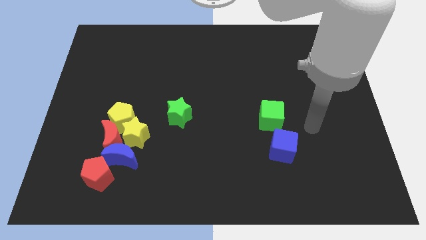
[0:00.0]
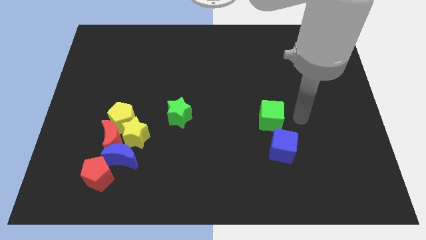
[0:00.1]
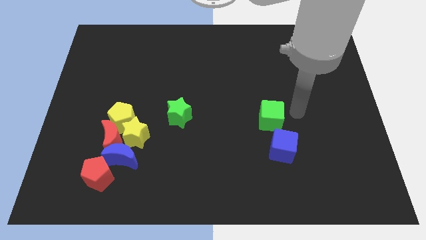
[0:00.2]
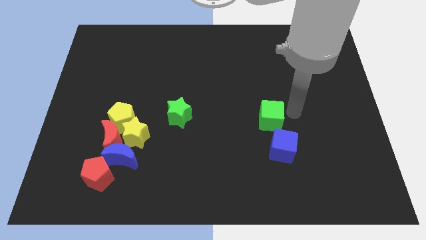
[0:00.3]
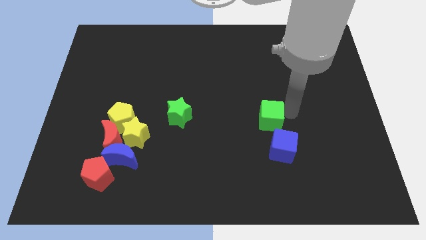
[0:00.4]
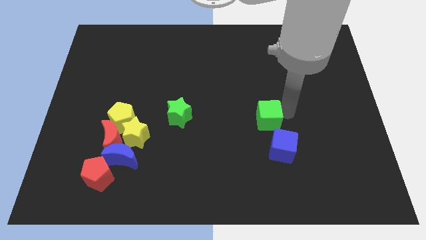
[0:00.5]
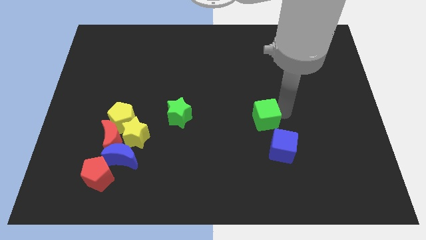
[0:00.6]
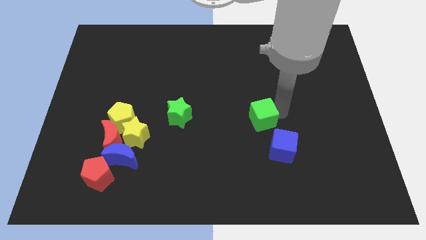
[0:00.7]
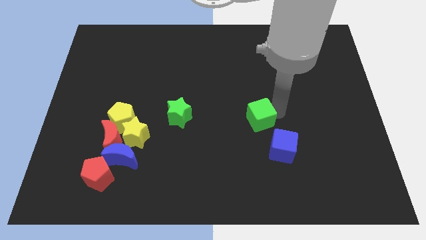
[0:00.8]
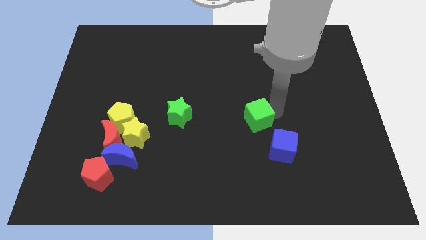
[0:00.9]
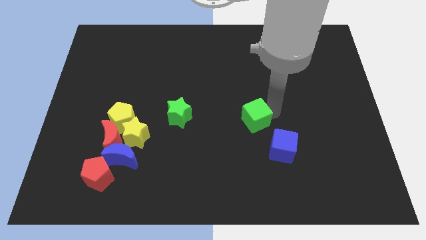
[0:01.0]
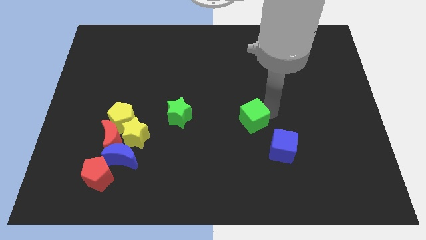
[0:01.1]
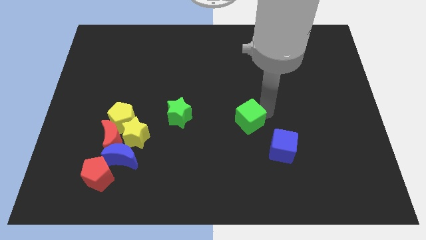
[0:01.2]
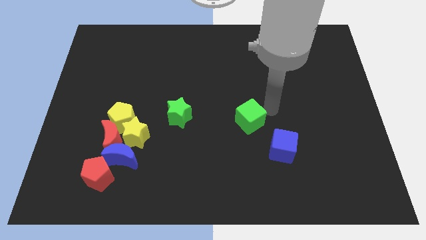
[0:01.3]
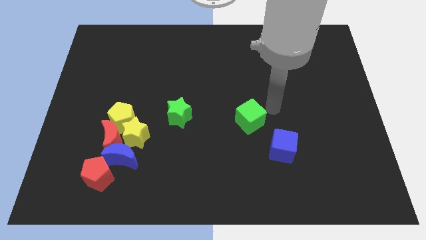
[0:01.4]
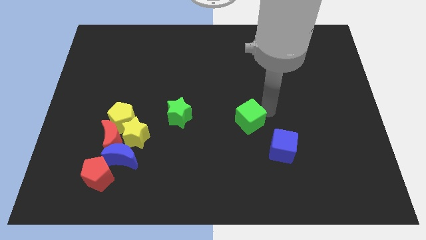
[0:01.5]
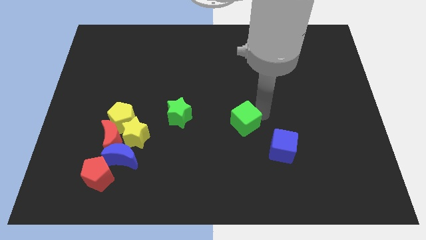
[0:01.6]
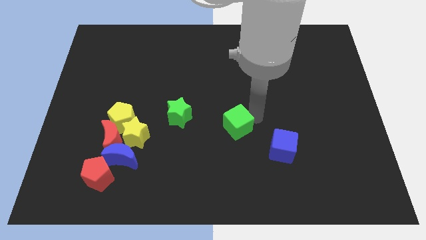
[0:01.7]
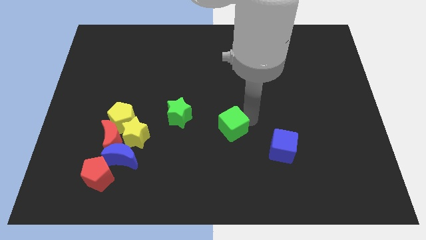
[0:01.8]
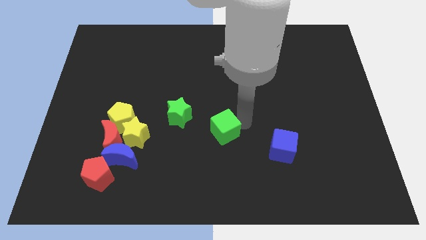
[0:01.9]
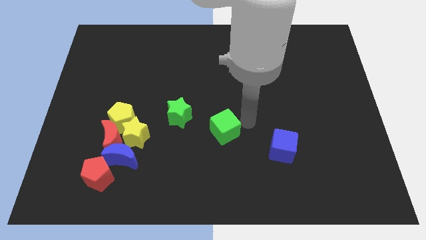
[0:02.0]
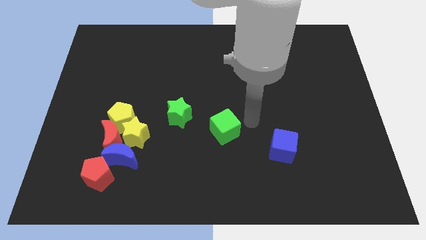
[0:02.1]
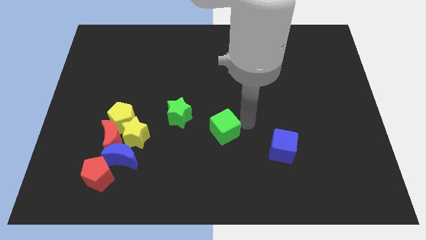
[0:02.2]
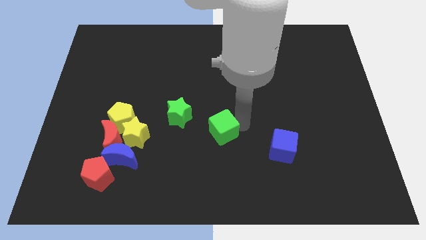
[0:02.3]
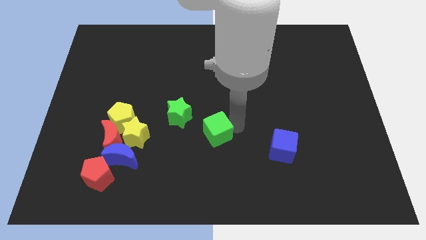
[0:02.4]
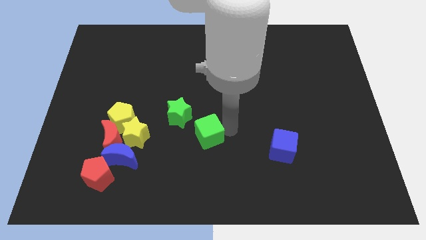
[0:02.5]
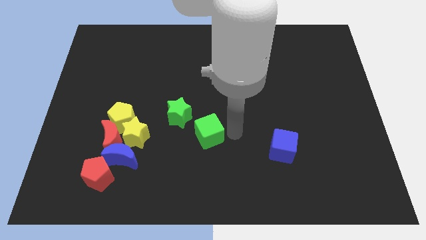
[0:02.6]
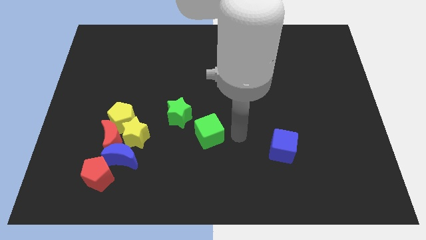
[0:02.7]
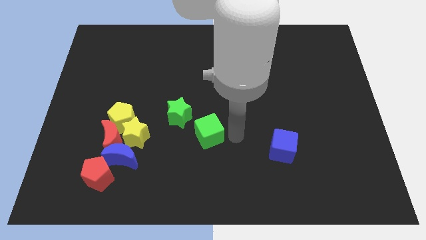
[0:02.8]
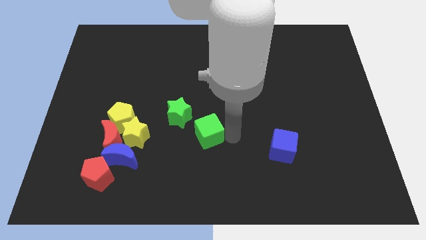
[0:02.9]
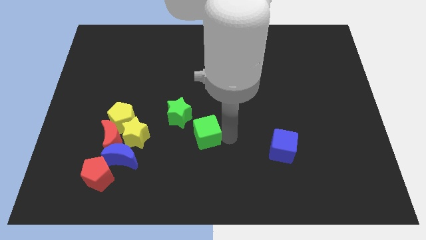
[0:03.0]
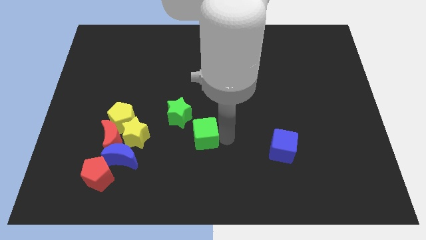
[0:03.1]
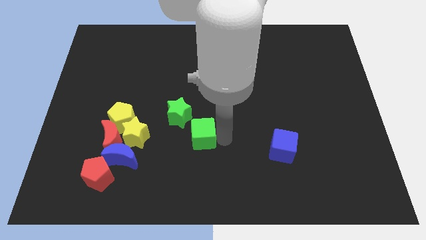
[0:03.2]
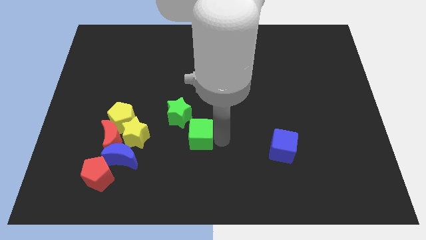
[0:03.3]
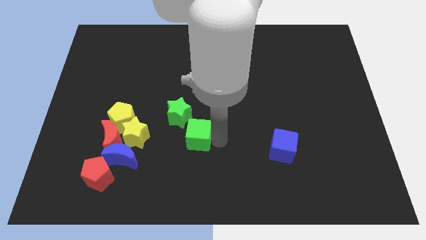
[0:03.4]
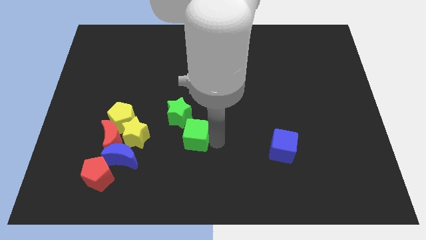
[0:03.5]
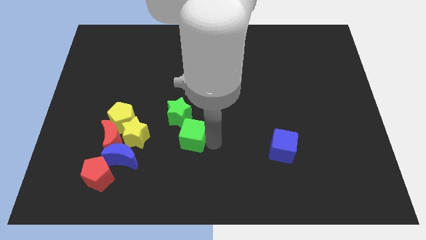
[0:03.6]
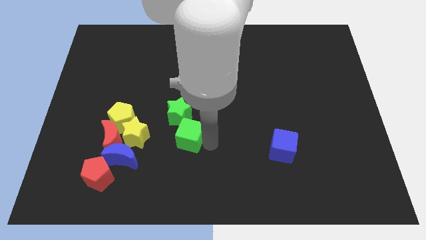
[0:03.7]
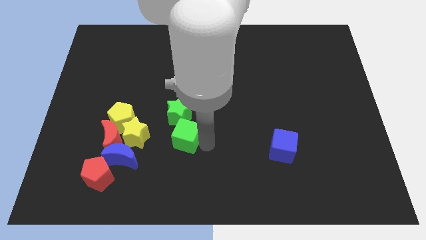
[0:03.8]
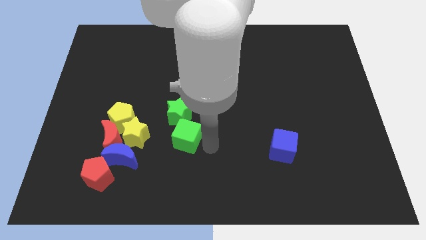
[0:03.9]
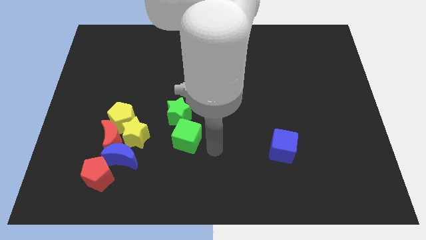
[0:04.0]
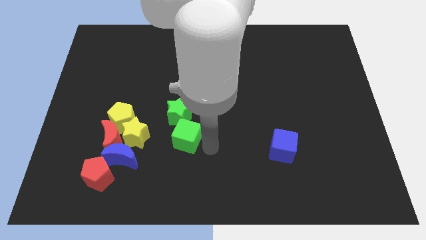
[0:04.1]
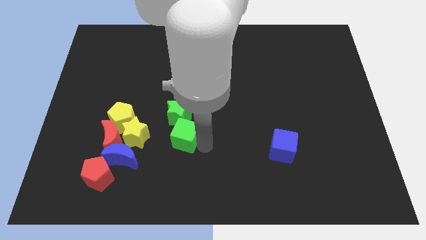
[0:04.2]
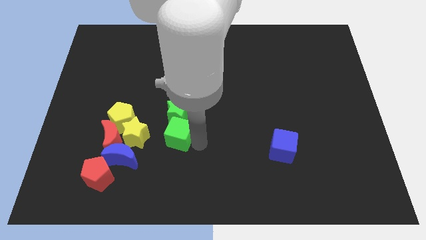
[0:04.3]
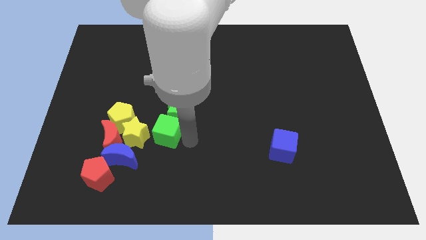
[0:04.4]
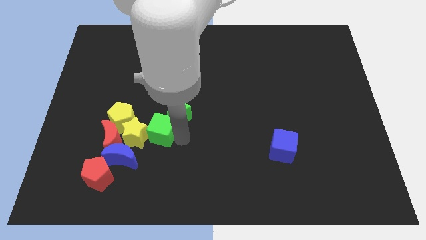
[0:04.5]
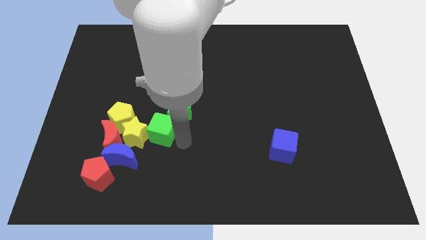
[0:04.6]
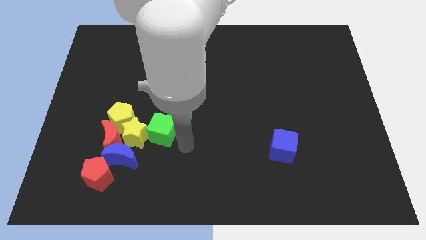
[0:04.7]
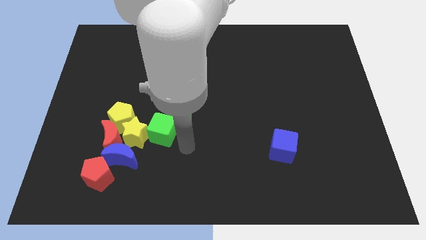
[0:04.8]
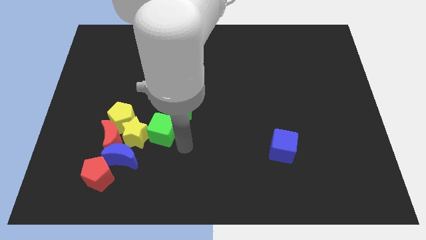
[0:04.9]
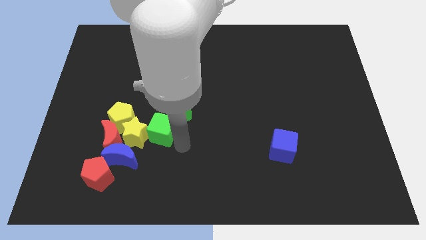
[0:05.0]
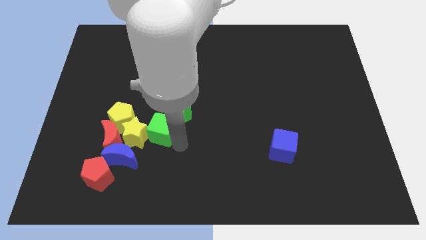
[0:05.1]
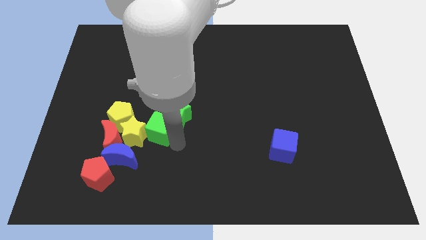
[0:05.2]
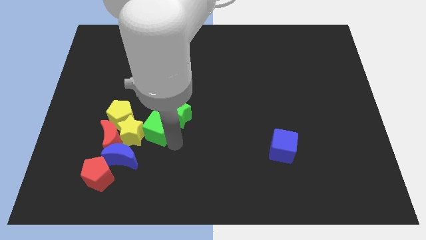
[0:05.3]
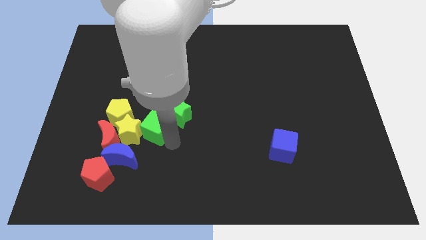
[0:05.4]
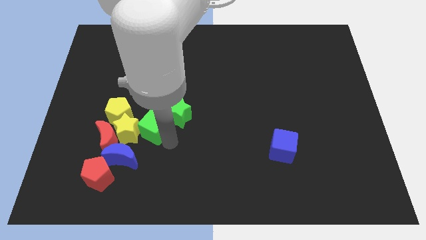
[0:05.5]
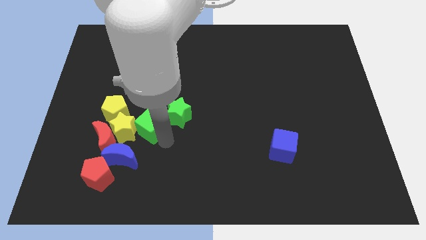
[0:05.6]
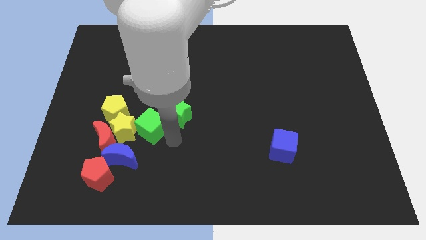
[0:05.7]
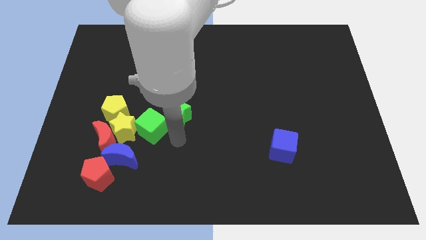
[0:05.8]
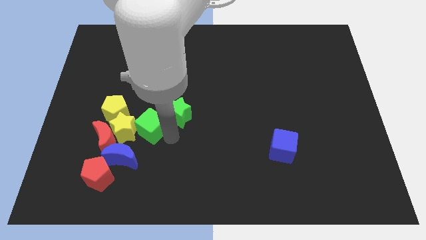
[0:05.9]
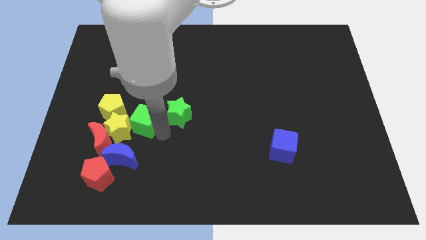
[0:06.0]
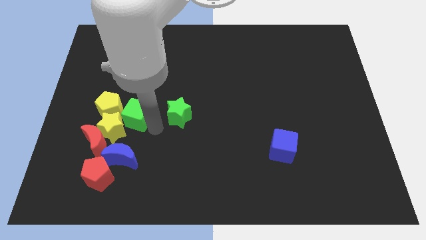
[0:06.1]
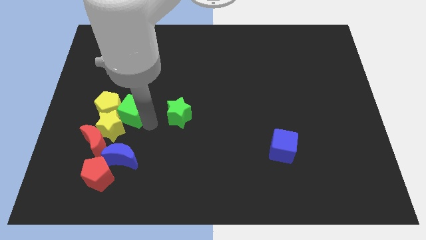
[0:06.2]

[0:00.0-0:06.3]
slide the green cube next to the yellow pentagon
